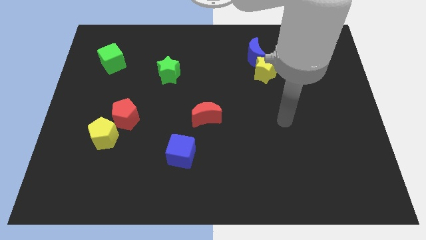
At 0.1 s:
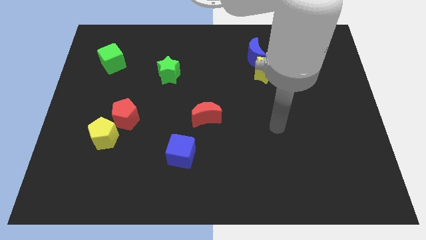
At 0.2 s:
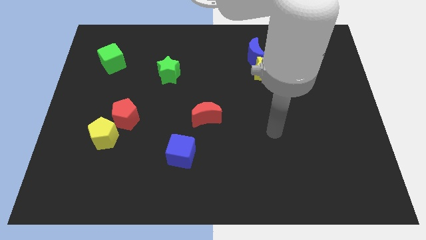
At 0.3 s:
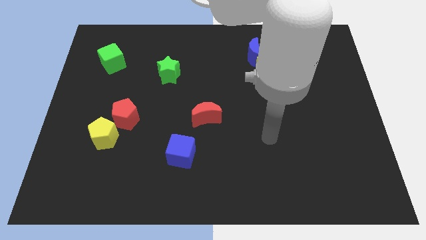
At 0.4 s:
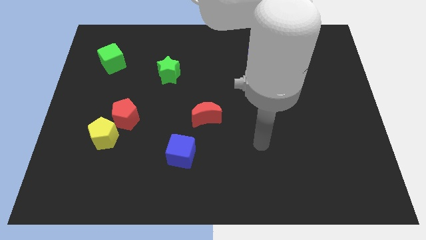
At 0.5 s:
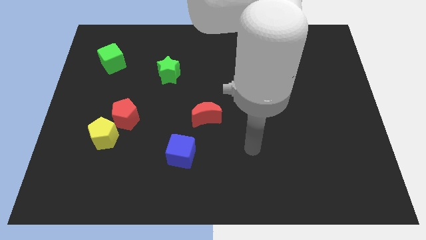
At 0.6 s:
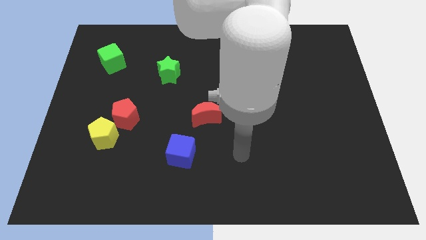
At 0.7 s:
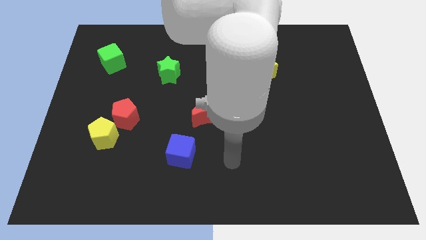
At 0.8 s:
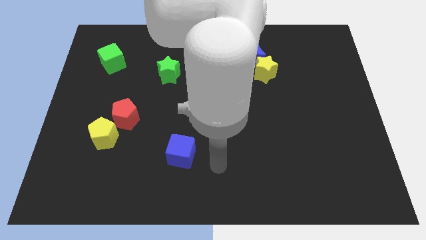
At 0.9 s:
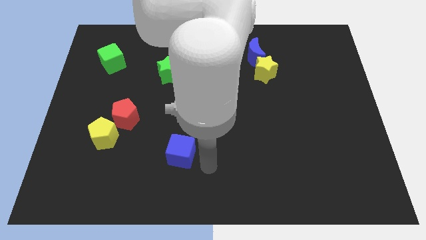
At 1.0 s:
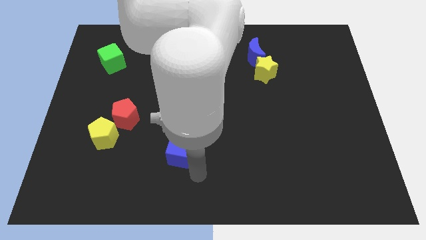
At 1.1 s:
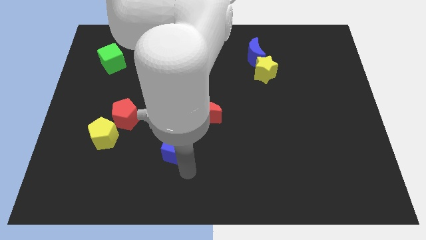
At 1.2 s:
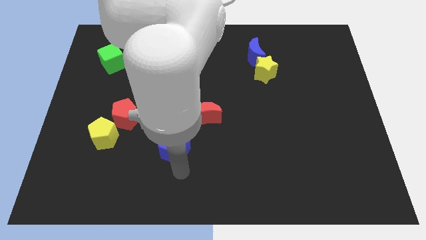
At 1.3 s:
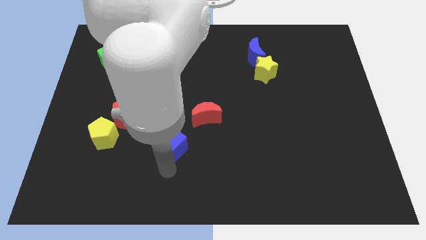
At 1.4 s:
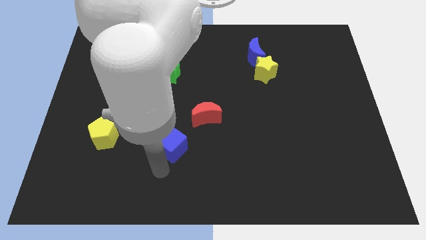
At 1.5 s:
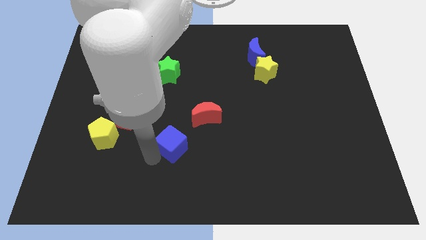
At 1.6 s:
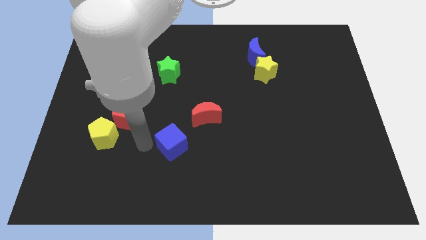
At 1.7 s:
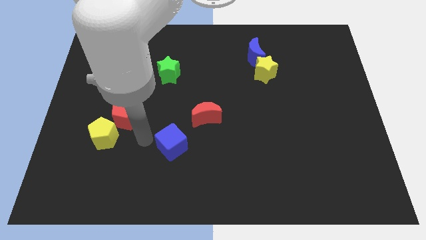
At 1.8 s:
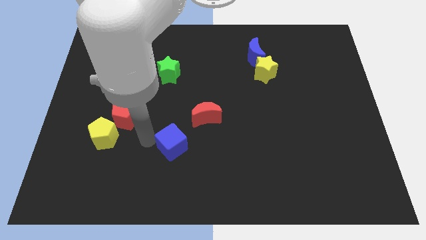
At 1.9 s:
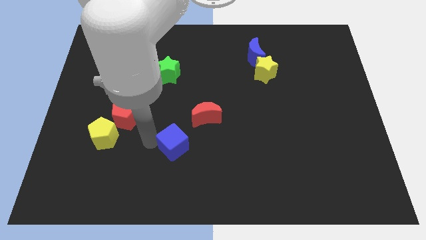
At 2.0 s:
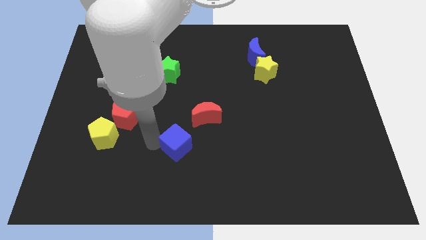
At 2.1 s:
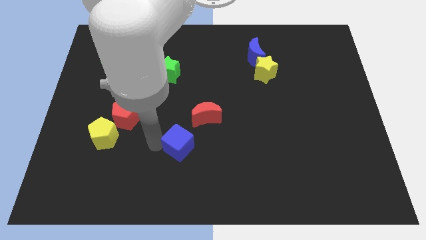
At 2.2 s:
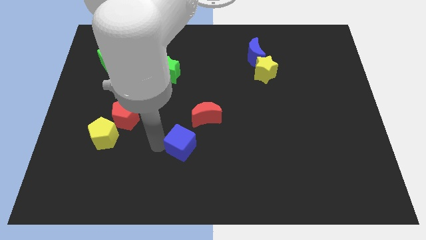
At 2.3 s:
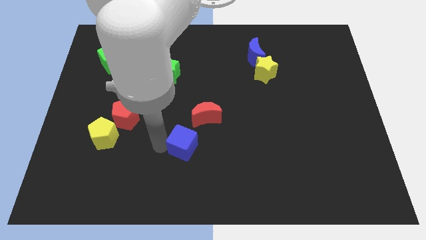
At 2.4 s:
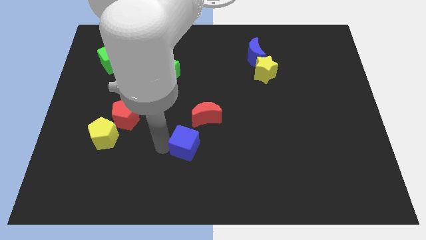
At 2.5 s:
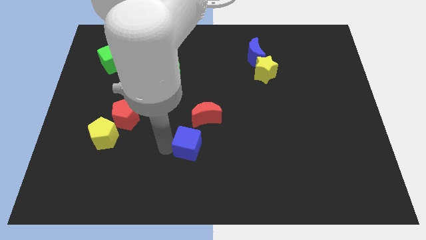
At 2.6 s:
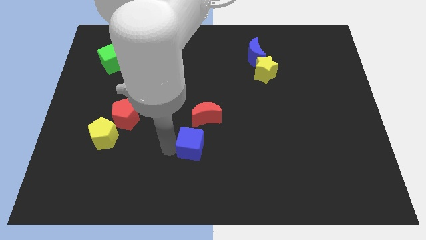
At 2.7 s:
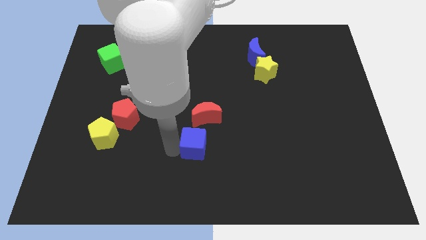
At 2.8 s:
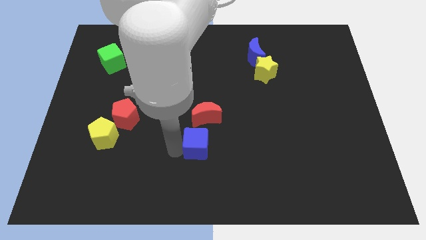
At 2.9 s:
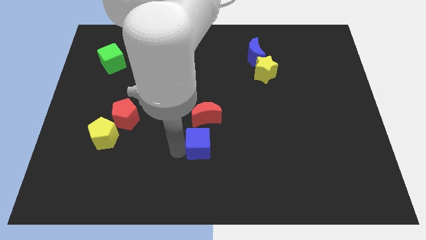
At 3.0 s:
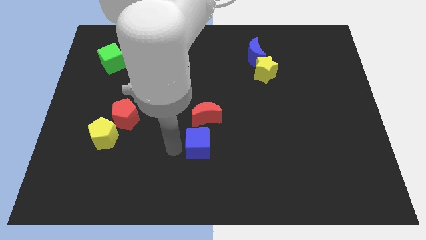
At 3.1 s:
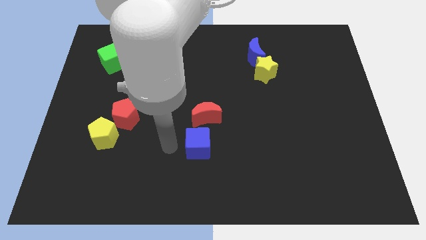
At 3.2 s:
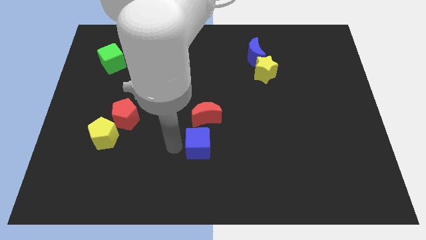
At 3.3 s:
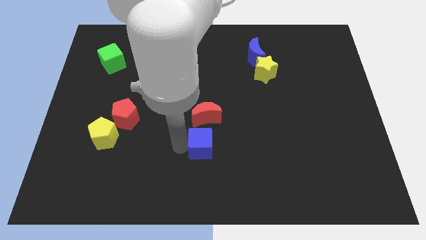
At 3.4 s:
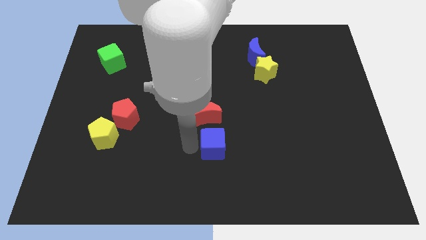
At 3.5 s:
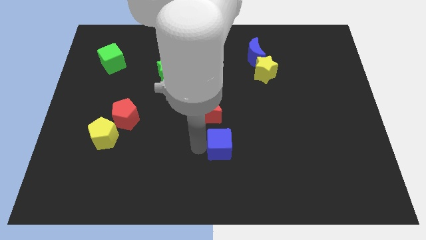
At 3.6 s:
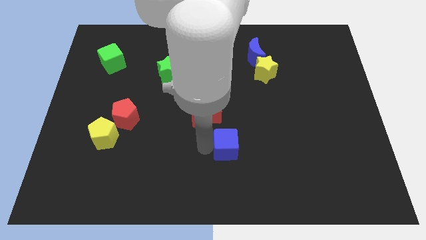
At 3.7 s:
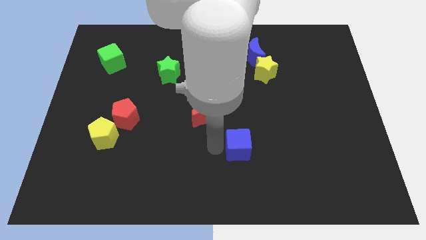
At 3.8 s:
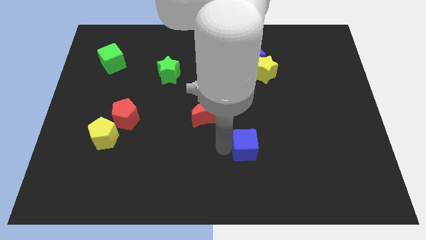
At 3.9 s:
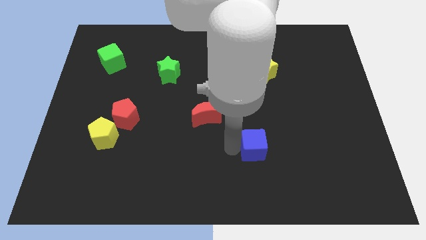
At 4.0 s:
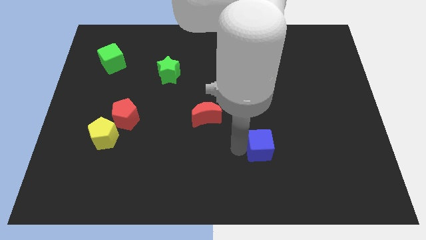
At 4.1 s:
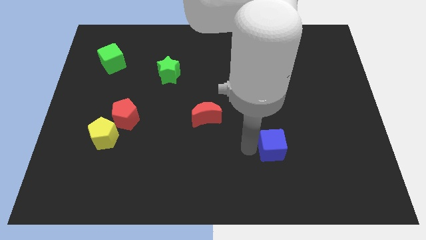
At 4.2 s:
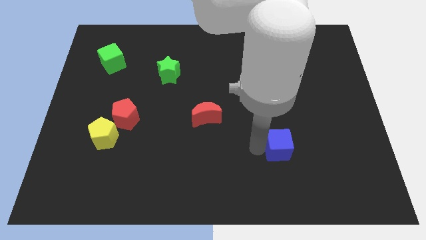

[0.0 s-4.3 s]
push the blue cube to the right

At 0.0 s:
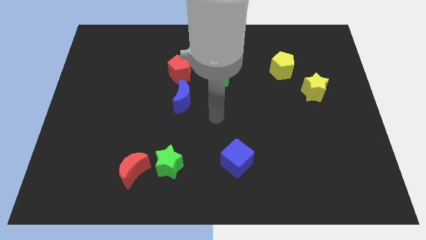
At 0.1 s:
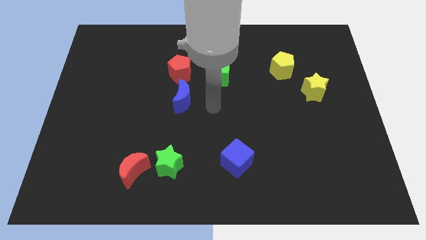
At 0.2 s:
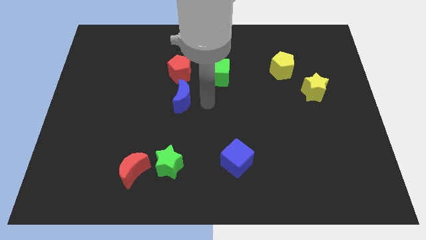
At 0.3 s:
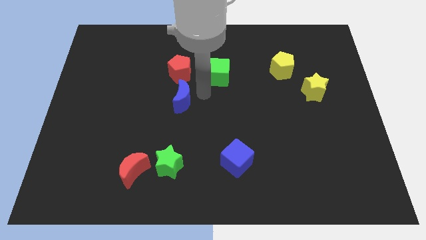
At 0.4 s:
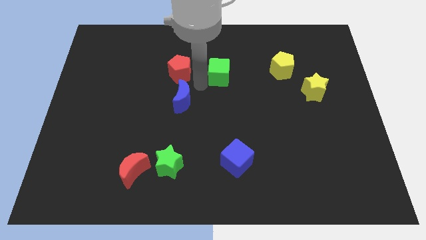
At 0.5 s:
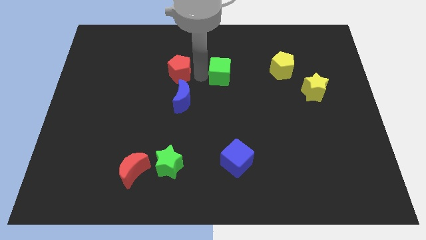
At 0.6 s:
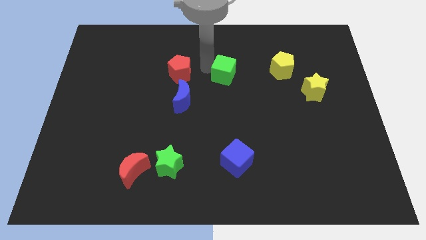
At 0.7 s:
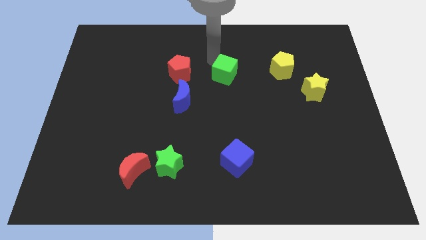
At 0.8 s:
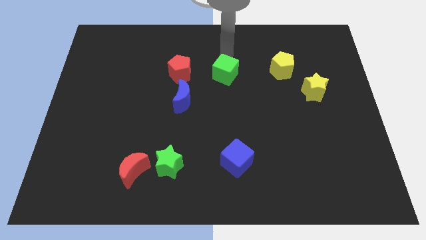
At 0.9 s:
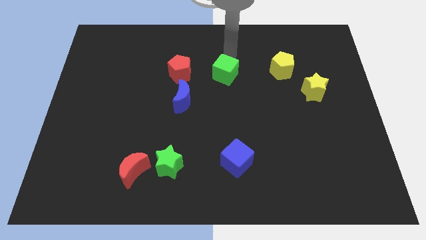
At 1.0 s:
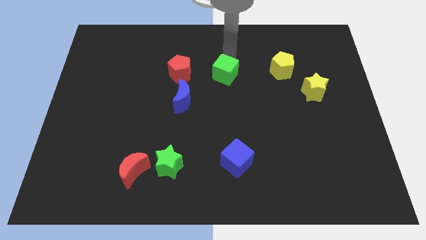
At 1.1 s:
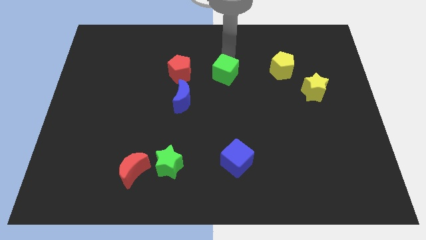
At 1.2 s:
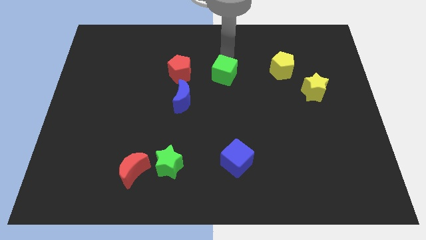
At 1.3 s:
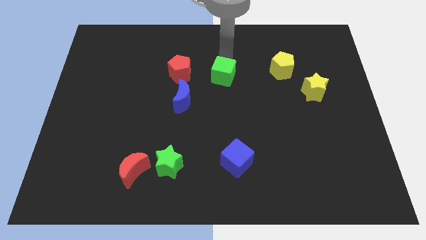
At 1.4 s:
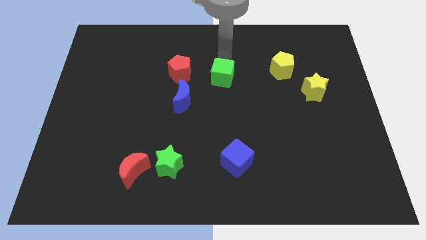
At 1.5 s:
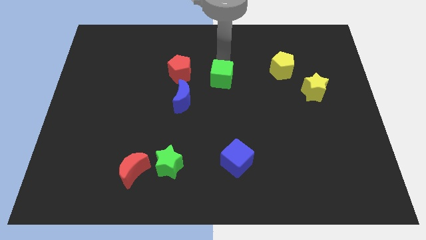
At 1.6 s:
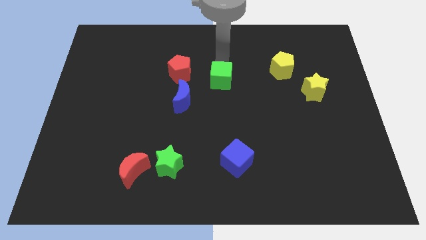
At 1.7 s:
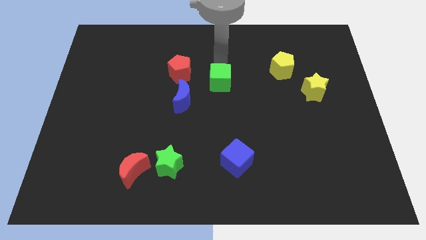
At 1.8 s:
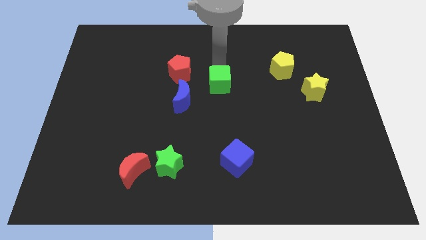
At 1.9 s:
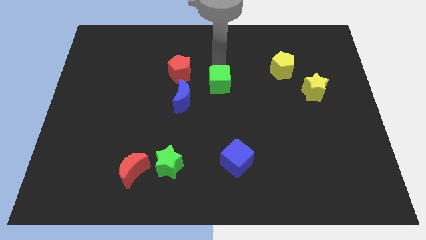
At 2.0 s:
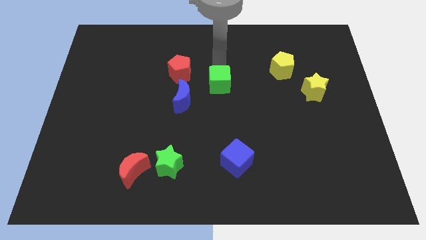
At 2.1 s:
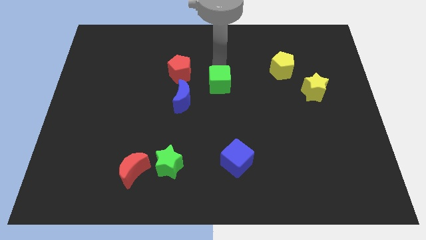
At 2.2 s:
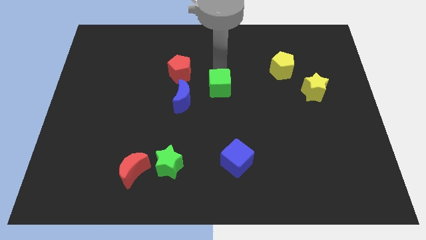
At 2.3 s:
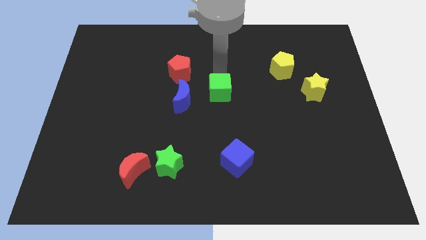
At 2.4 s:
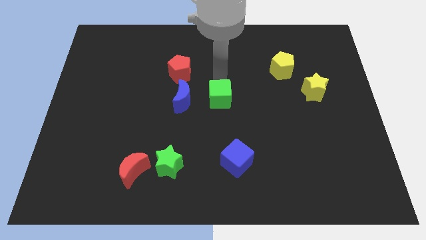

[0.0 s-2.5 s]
slightly slide the green cube down

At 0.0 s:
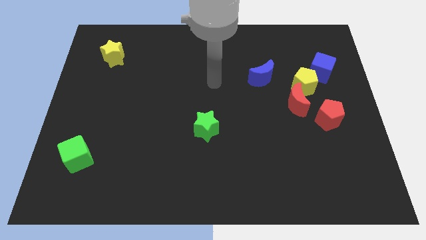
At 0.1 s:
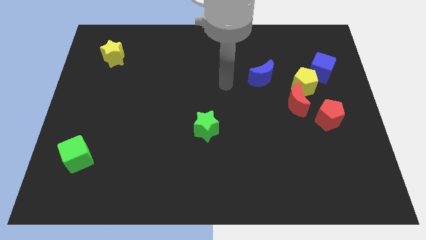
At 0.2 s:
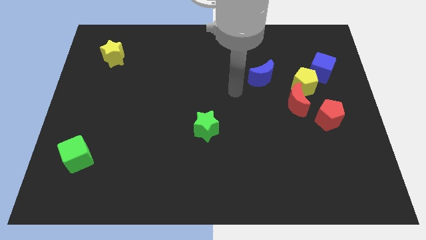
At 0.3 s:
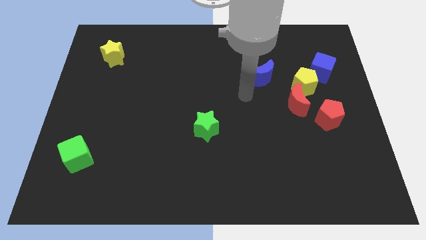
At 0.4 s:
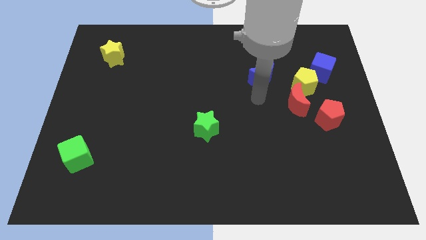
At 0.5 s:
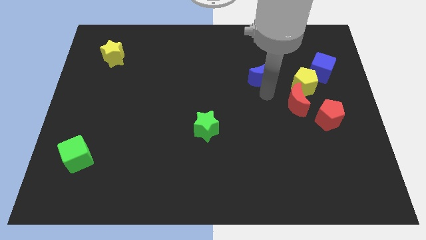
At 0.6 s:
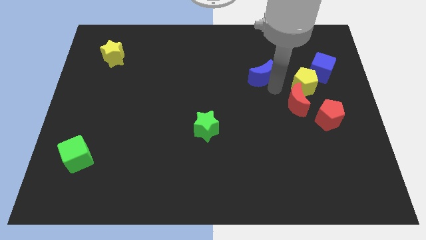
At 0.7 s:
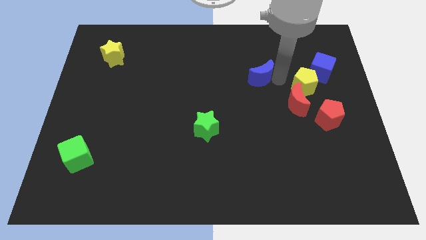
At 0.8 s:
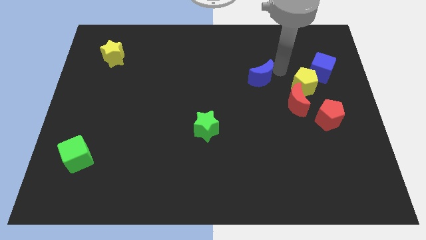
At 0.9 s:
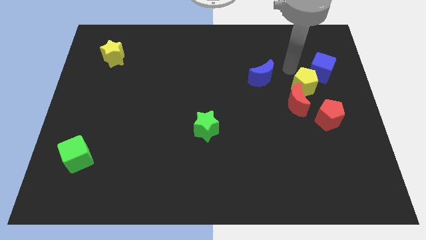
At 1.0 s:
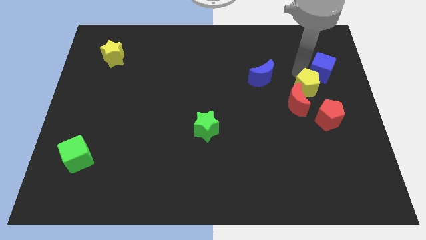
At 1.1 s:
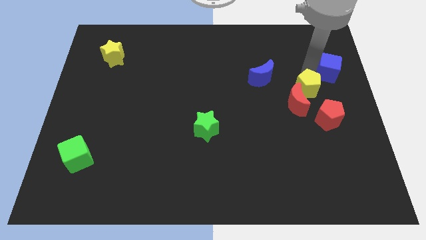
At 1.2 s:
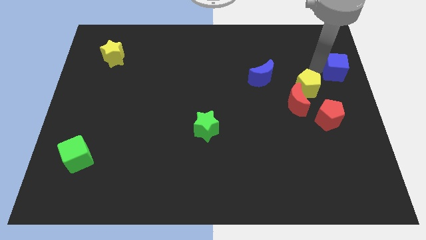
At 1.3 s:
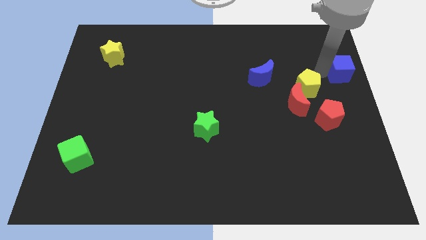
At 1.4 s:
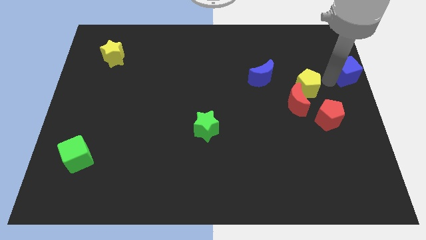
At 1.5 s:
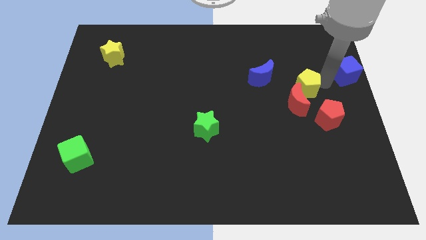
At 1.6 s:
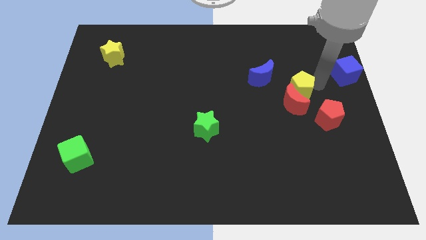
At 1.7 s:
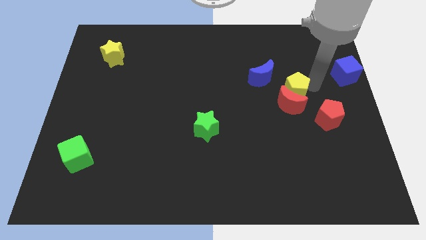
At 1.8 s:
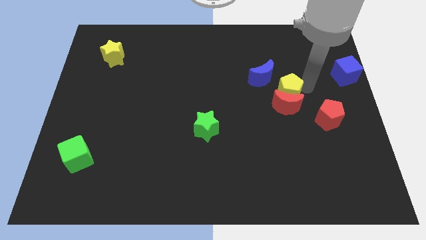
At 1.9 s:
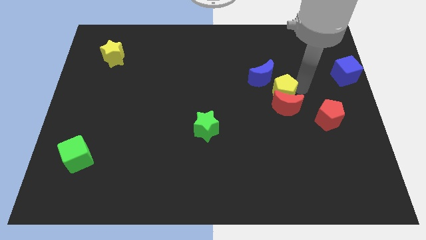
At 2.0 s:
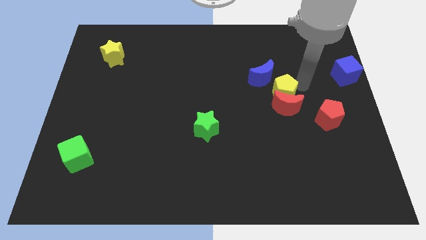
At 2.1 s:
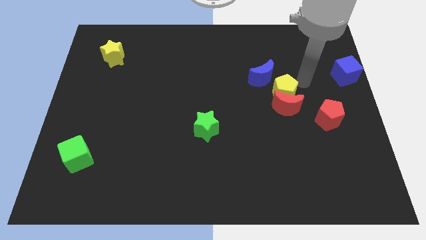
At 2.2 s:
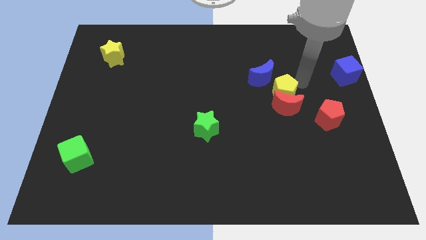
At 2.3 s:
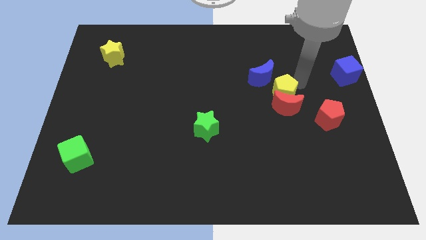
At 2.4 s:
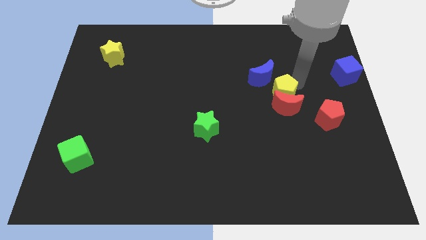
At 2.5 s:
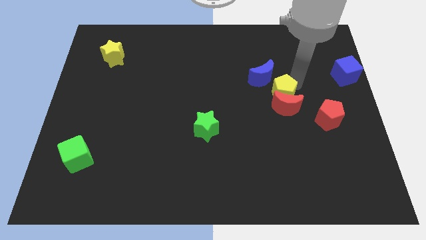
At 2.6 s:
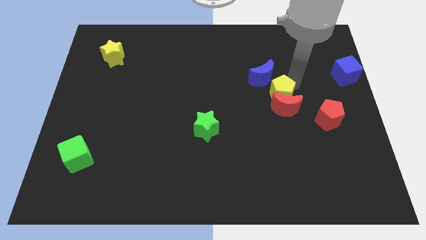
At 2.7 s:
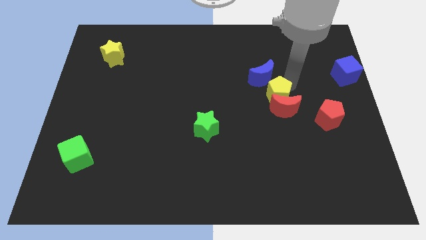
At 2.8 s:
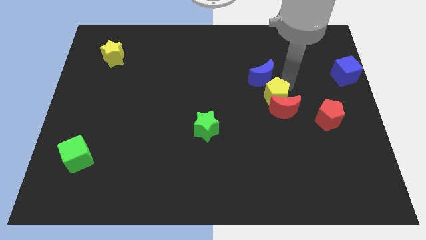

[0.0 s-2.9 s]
slightly move the yellow pentagon down and left diagonally
